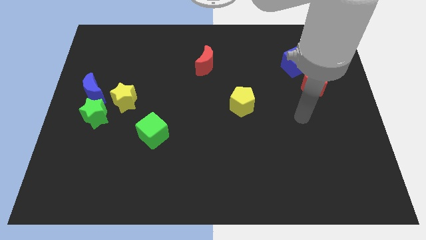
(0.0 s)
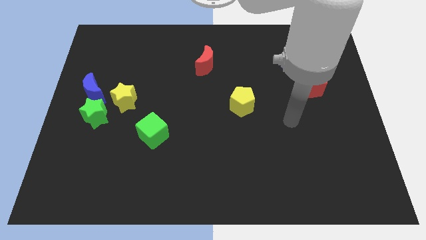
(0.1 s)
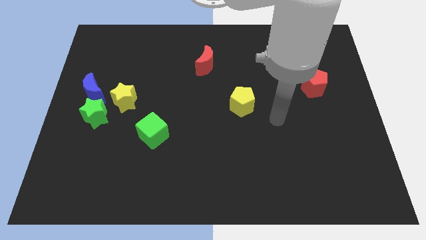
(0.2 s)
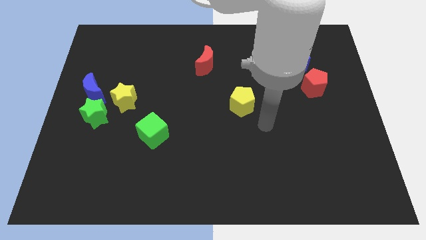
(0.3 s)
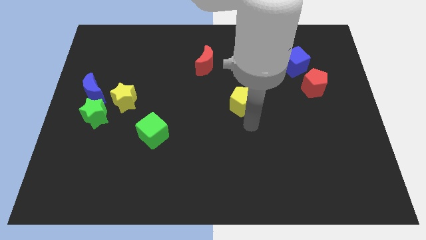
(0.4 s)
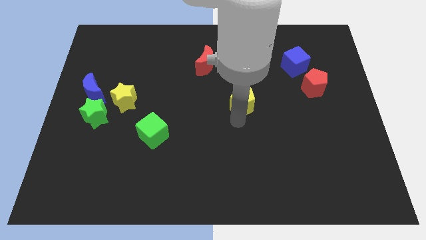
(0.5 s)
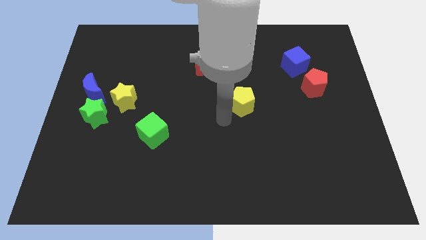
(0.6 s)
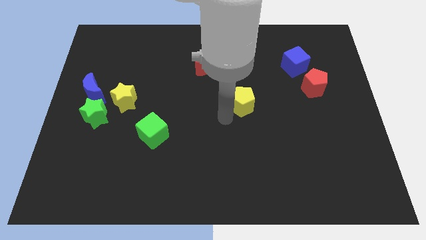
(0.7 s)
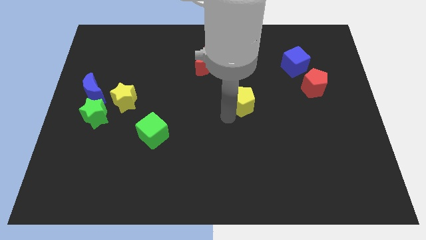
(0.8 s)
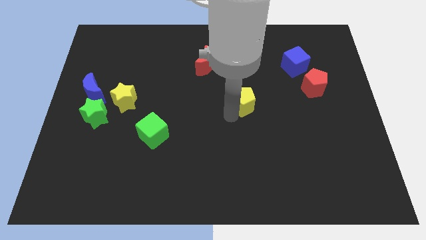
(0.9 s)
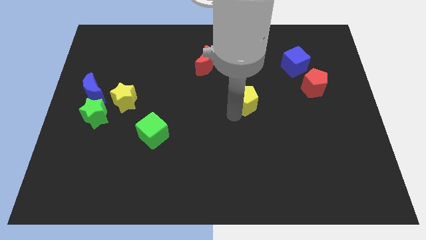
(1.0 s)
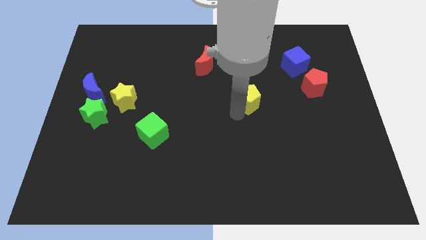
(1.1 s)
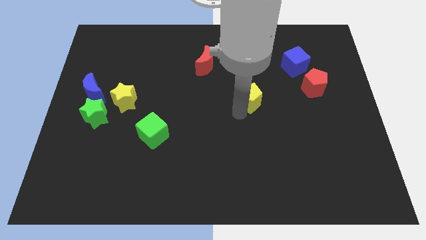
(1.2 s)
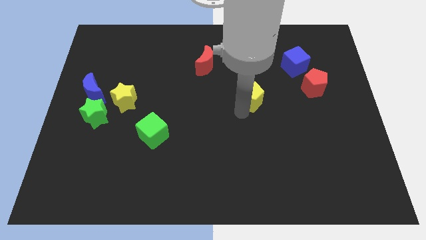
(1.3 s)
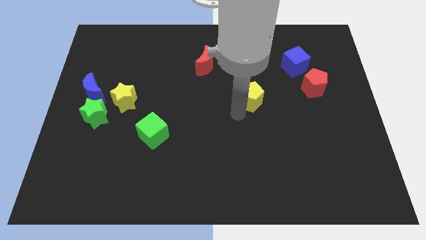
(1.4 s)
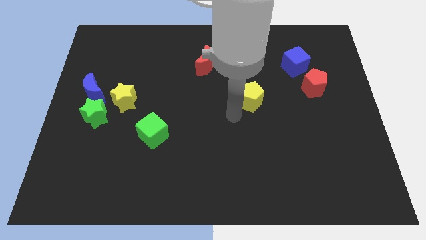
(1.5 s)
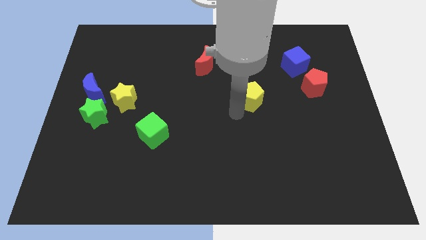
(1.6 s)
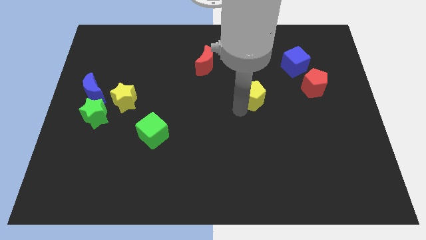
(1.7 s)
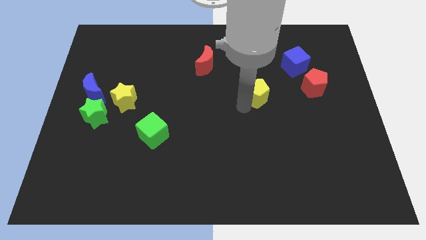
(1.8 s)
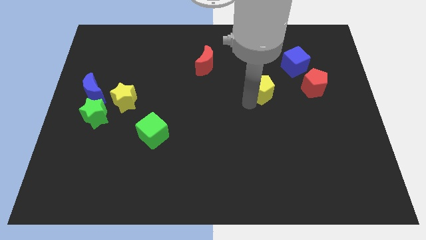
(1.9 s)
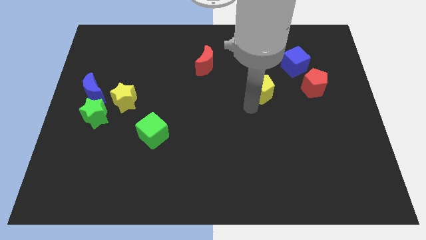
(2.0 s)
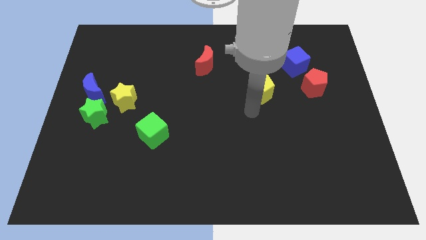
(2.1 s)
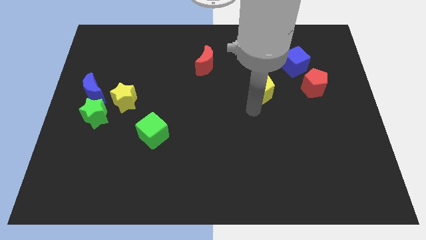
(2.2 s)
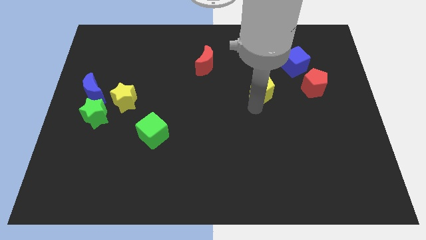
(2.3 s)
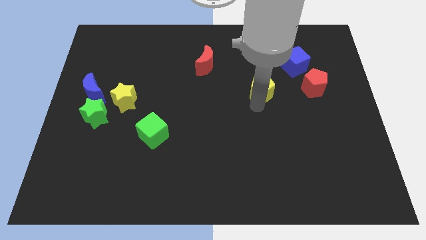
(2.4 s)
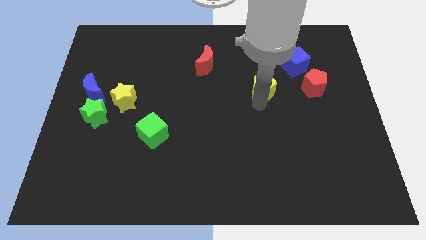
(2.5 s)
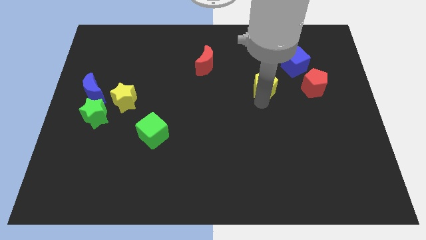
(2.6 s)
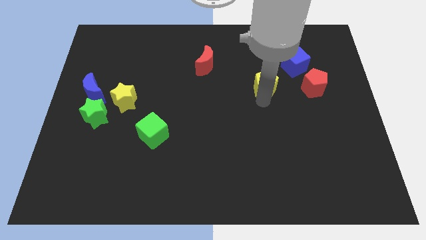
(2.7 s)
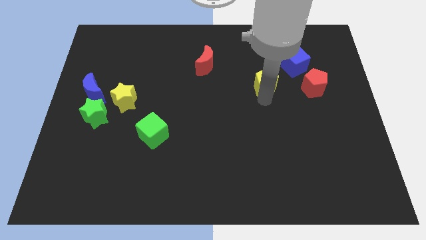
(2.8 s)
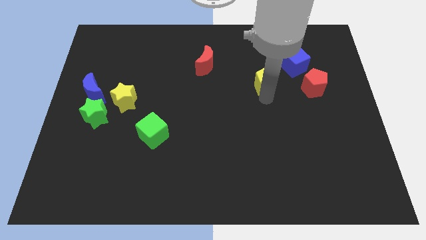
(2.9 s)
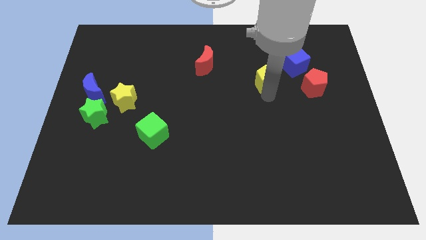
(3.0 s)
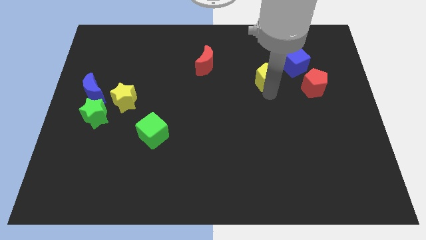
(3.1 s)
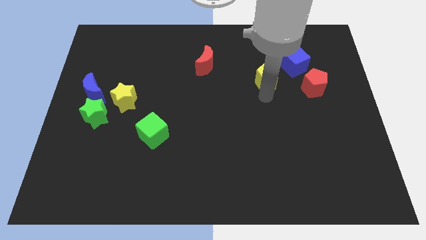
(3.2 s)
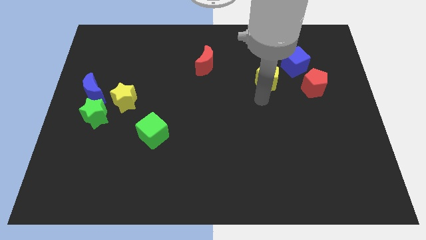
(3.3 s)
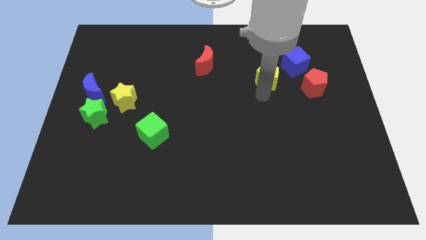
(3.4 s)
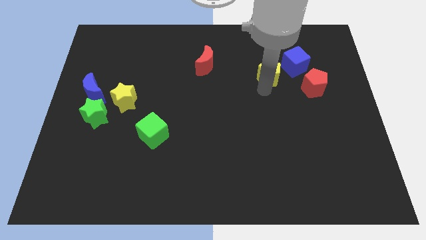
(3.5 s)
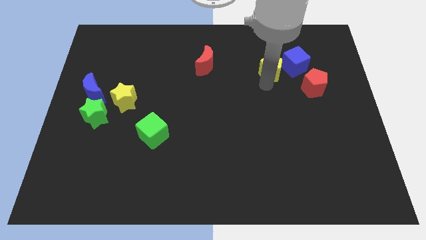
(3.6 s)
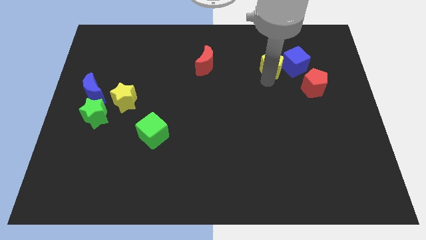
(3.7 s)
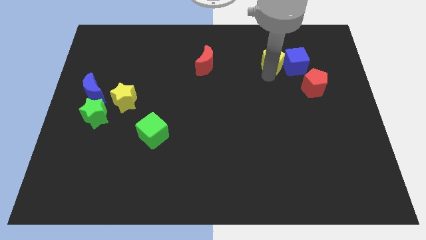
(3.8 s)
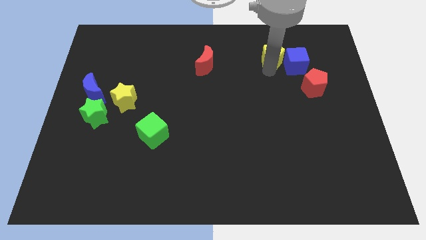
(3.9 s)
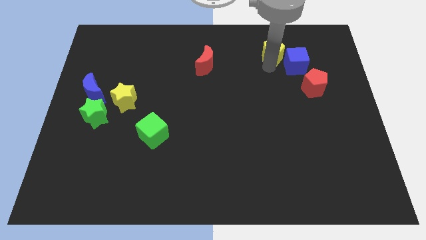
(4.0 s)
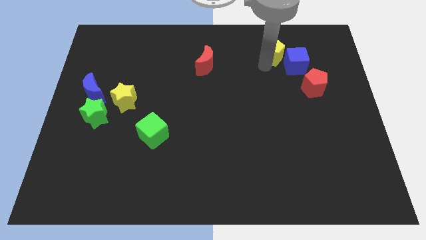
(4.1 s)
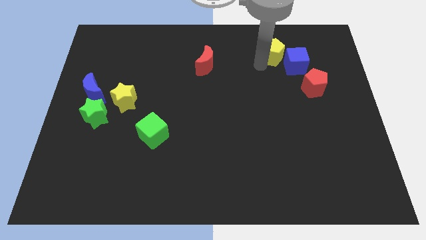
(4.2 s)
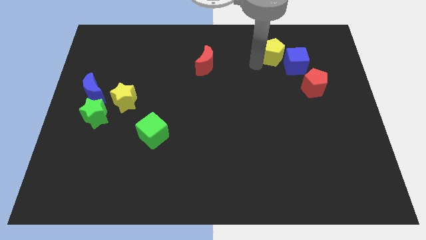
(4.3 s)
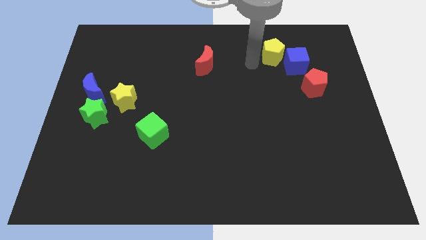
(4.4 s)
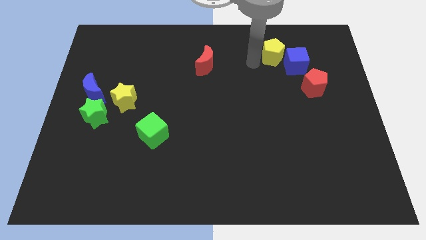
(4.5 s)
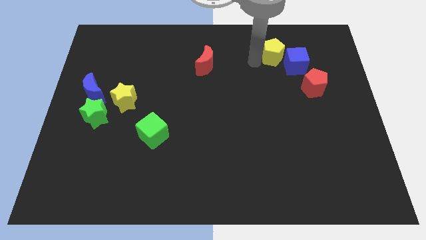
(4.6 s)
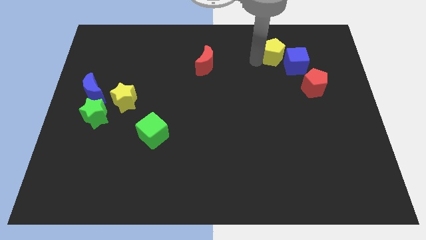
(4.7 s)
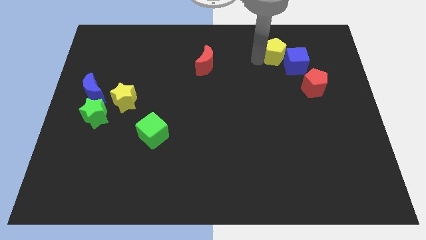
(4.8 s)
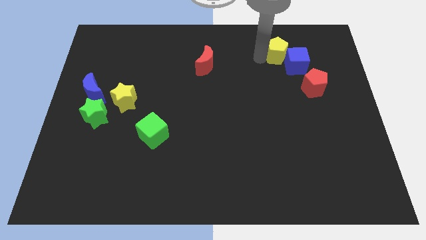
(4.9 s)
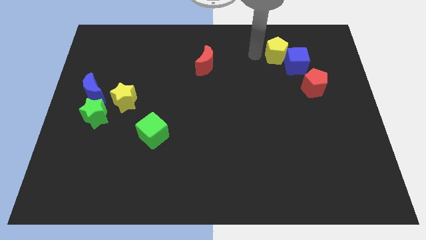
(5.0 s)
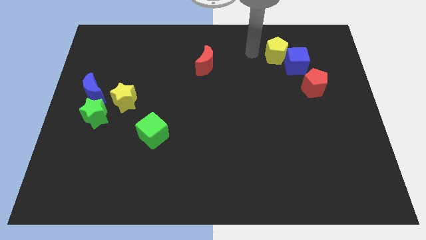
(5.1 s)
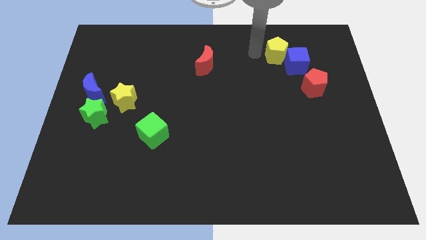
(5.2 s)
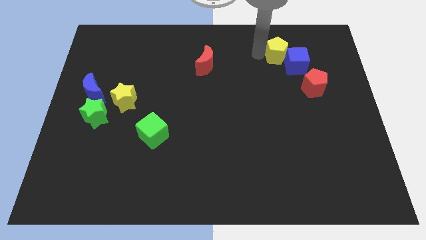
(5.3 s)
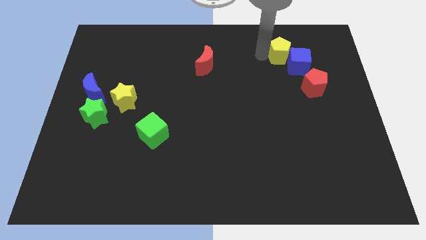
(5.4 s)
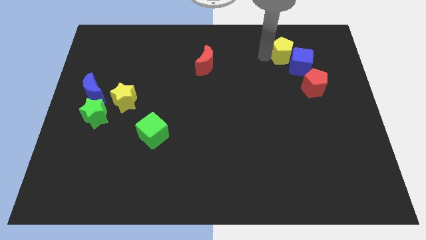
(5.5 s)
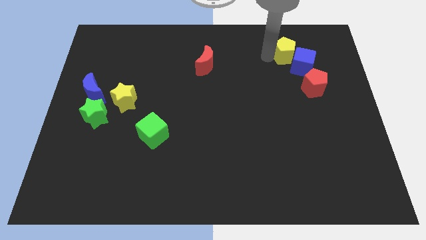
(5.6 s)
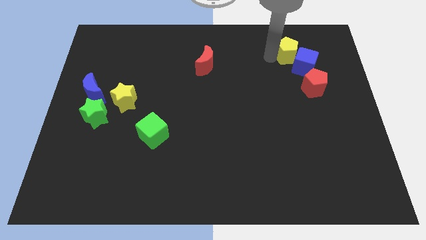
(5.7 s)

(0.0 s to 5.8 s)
put the yellow pentagon to the top of the red pentagon
